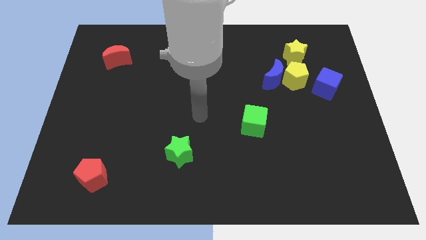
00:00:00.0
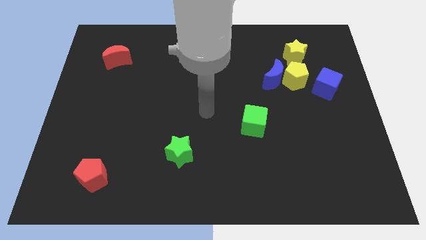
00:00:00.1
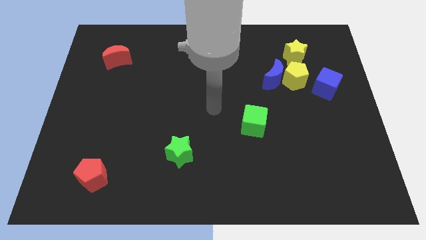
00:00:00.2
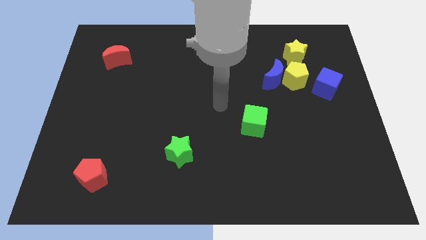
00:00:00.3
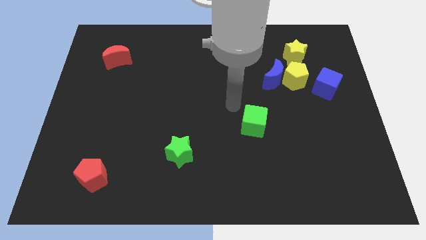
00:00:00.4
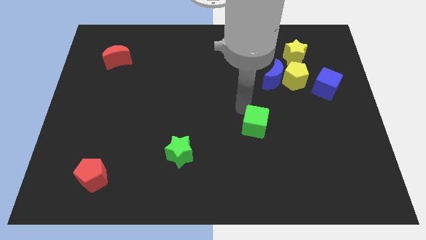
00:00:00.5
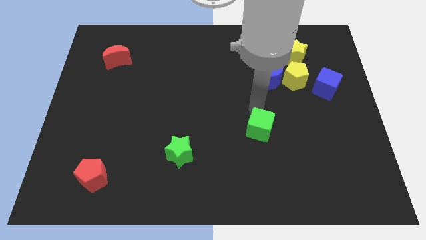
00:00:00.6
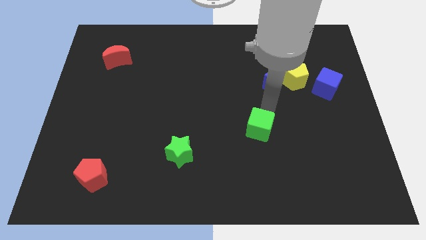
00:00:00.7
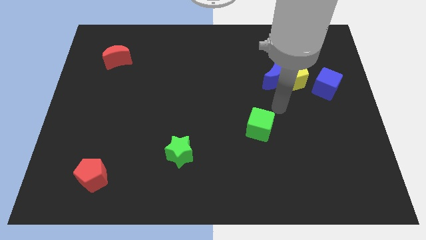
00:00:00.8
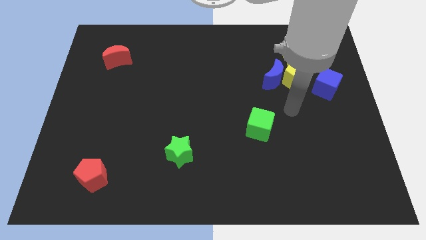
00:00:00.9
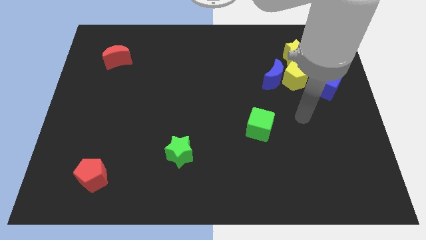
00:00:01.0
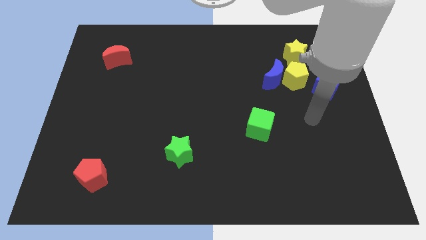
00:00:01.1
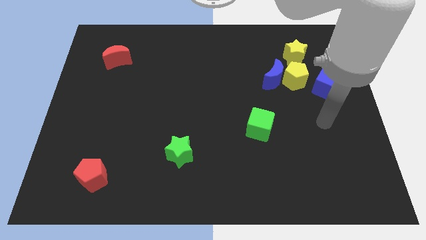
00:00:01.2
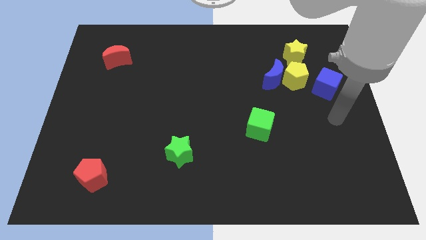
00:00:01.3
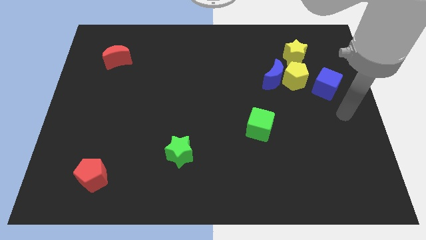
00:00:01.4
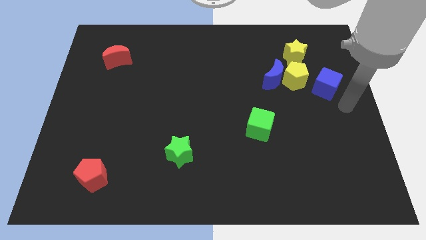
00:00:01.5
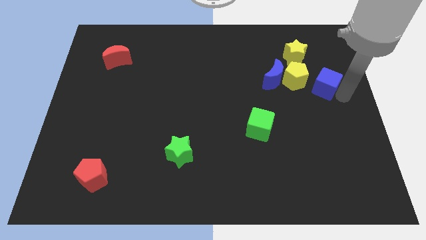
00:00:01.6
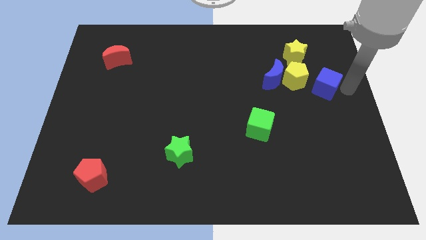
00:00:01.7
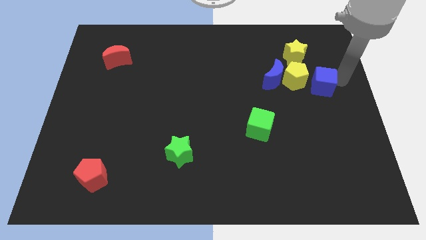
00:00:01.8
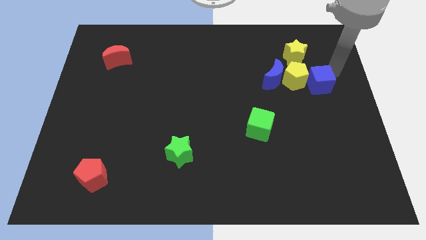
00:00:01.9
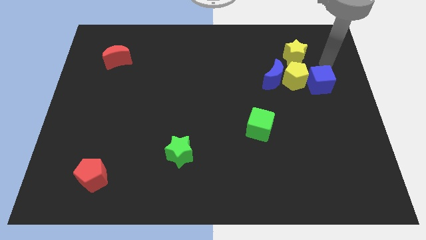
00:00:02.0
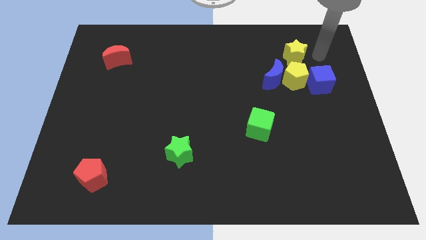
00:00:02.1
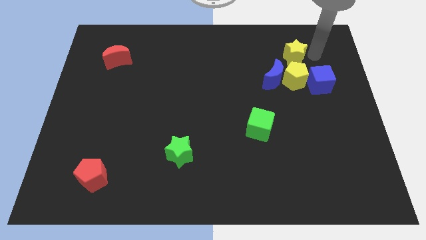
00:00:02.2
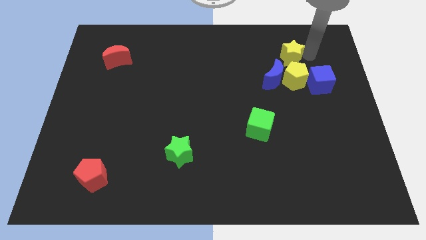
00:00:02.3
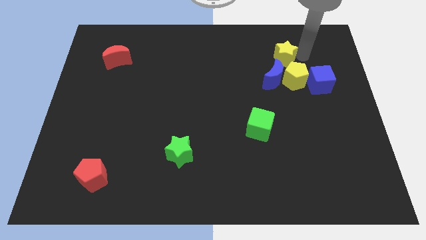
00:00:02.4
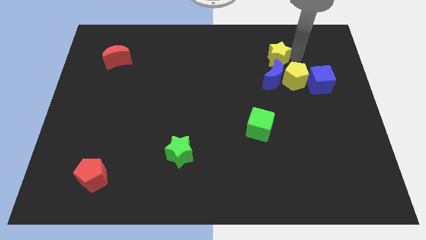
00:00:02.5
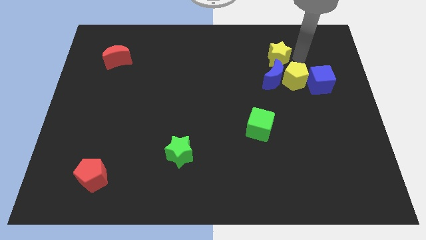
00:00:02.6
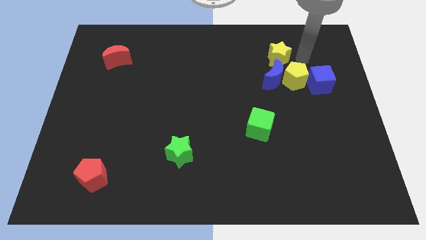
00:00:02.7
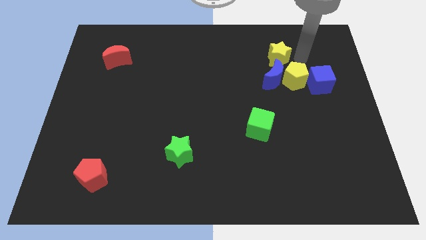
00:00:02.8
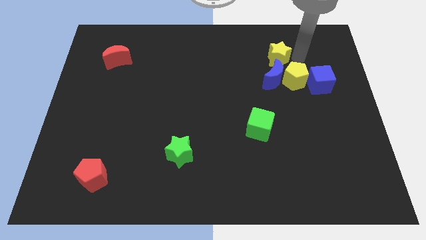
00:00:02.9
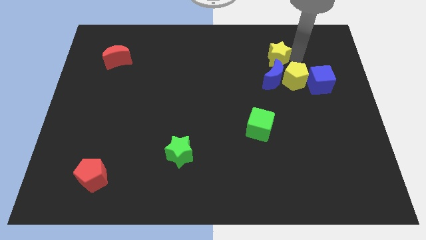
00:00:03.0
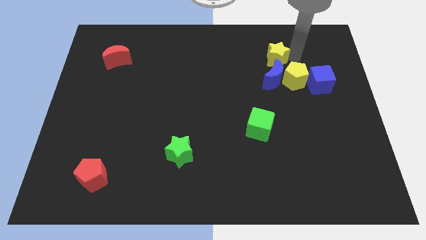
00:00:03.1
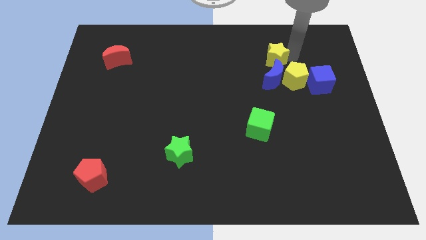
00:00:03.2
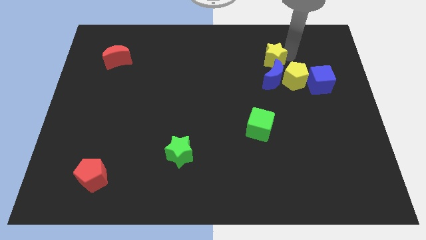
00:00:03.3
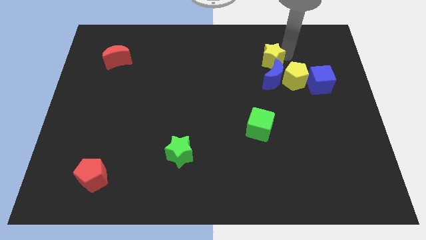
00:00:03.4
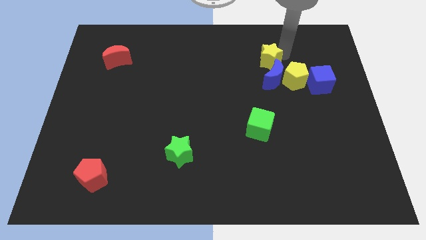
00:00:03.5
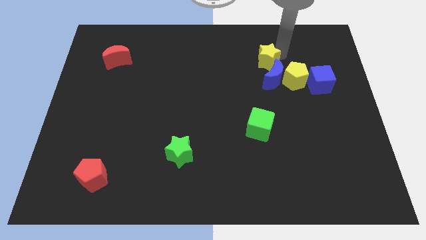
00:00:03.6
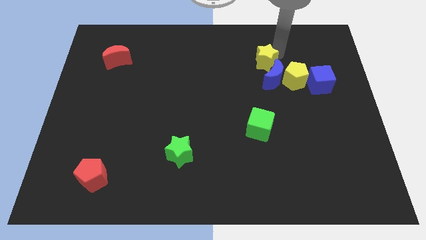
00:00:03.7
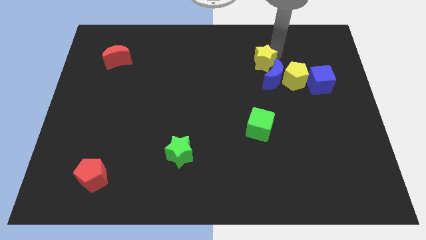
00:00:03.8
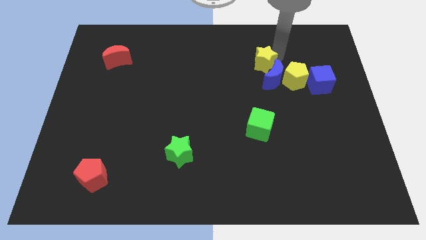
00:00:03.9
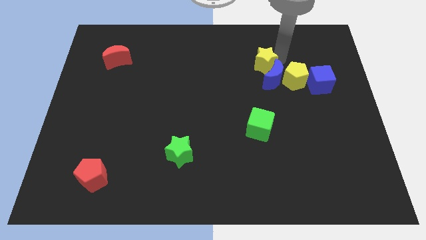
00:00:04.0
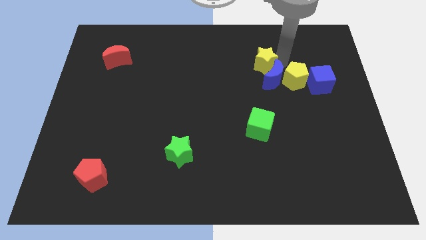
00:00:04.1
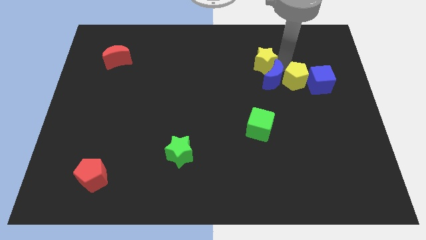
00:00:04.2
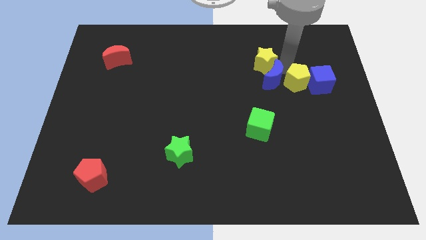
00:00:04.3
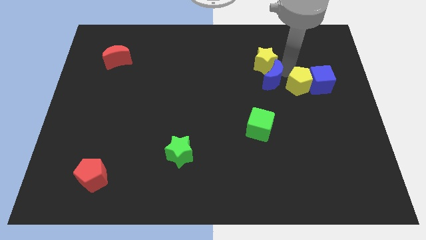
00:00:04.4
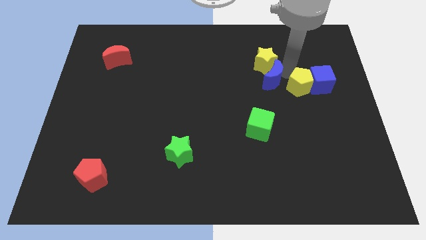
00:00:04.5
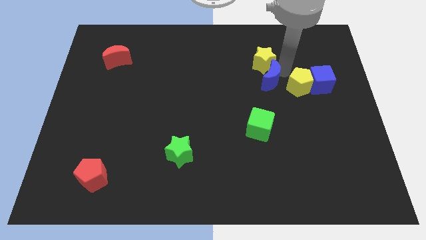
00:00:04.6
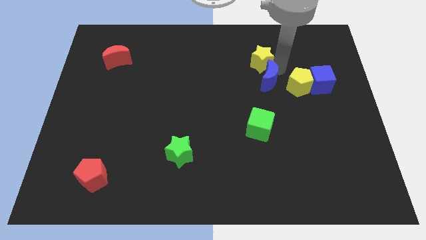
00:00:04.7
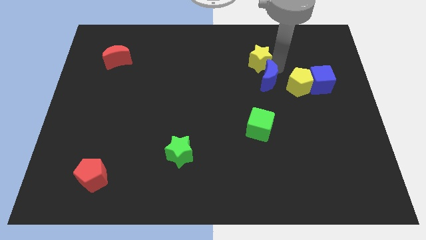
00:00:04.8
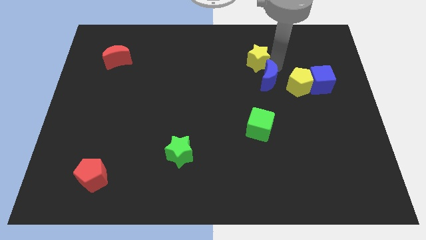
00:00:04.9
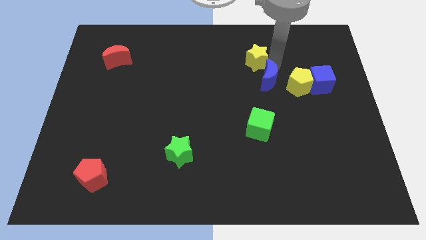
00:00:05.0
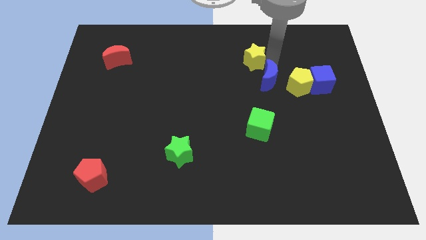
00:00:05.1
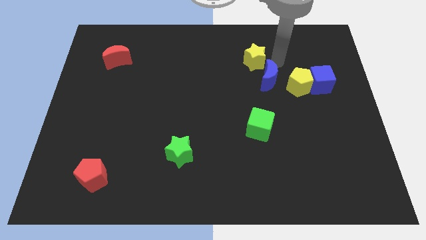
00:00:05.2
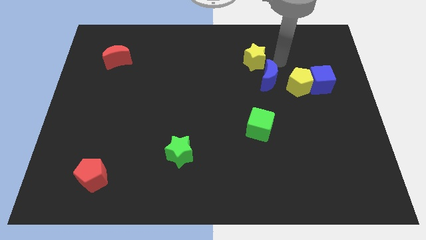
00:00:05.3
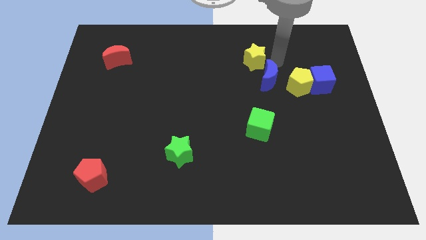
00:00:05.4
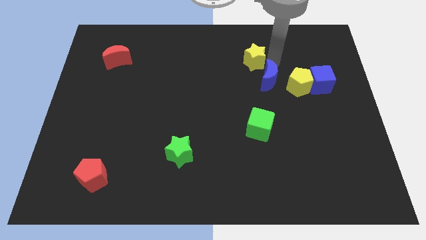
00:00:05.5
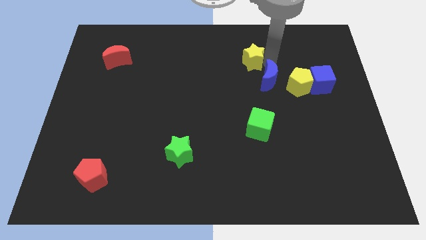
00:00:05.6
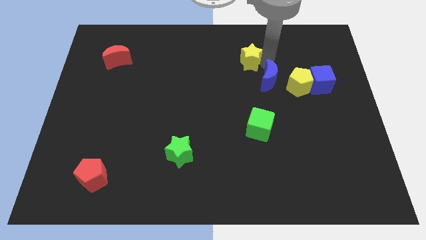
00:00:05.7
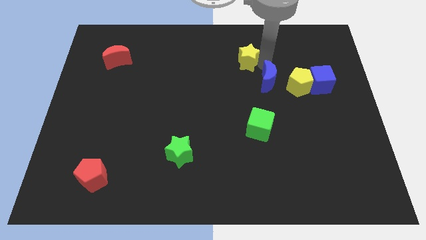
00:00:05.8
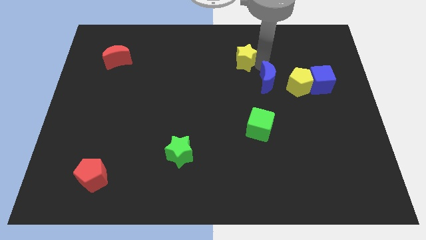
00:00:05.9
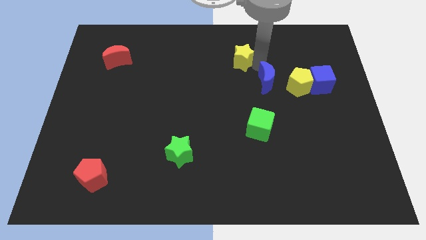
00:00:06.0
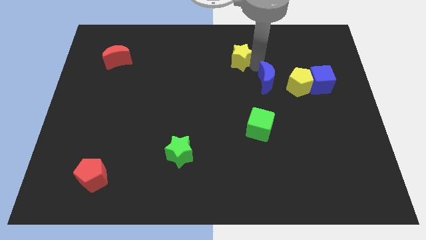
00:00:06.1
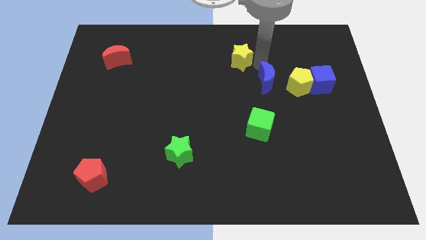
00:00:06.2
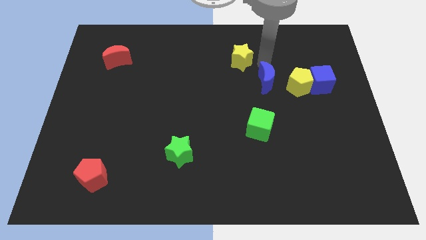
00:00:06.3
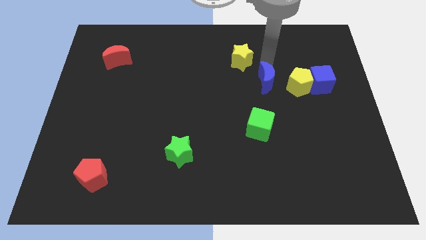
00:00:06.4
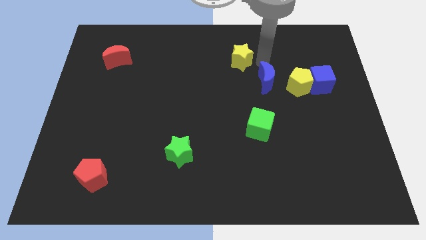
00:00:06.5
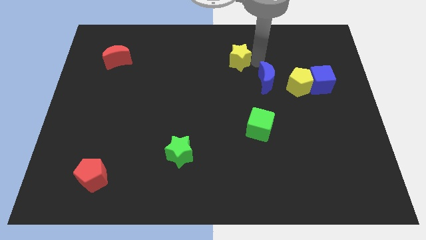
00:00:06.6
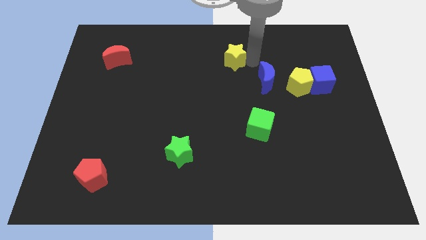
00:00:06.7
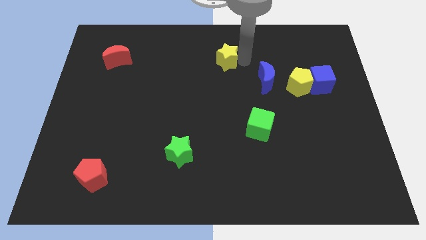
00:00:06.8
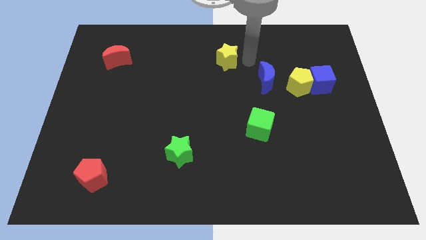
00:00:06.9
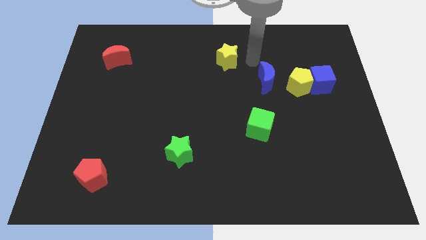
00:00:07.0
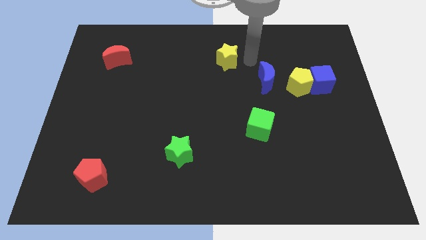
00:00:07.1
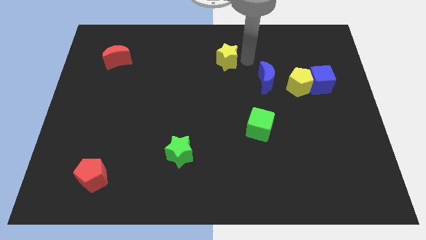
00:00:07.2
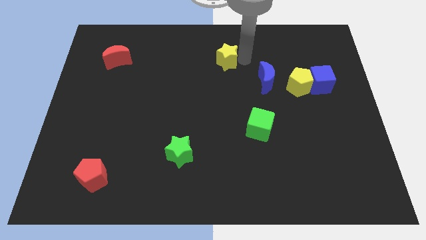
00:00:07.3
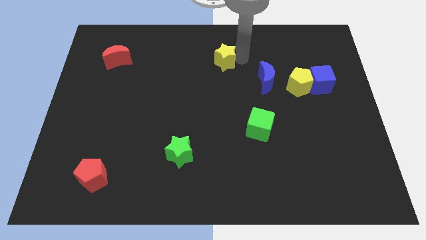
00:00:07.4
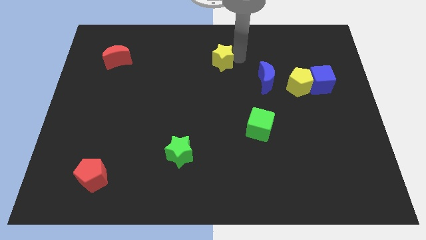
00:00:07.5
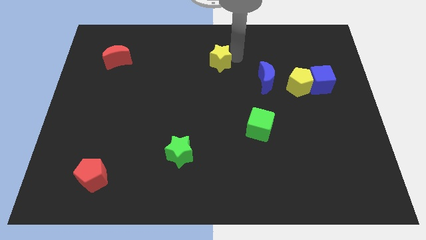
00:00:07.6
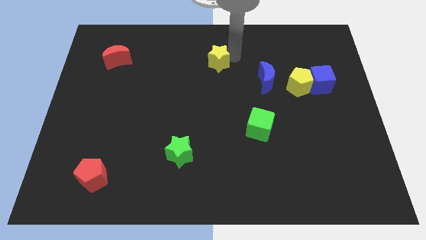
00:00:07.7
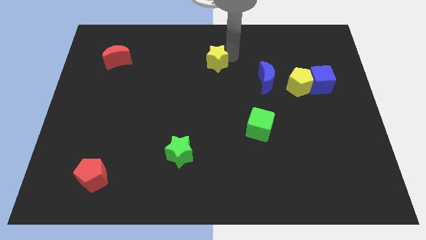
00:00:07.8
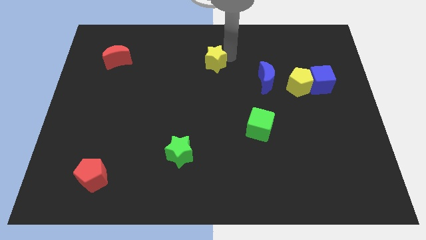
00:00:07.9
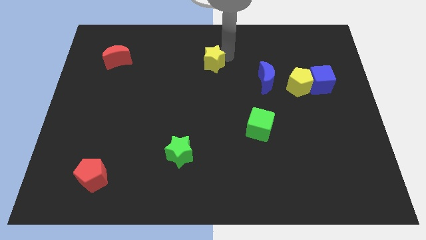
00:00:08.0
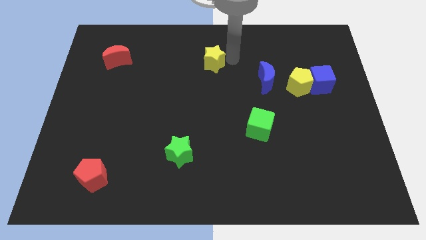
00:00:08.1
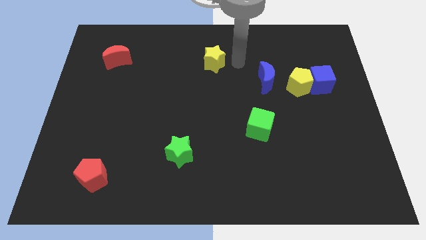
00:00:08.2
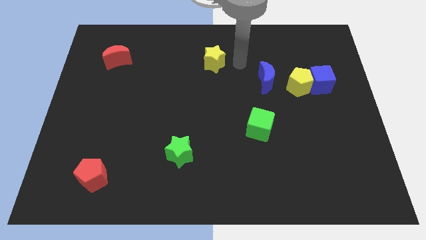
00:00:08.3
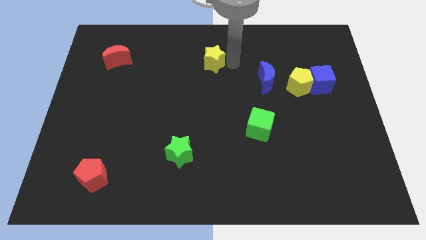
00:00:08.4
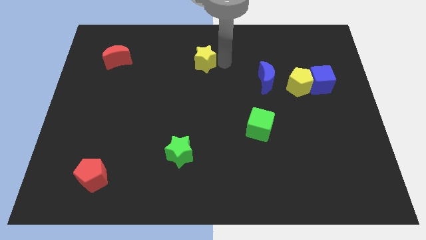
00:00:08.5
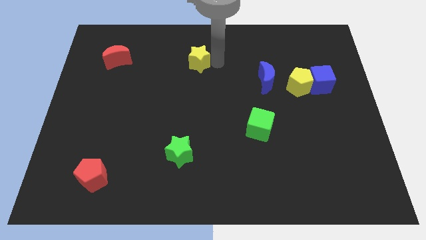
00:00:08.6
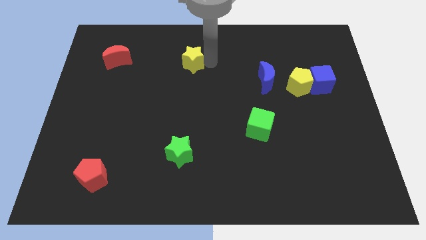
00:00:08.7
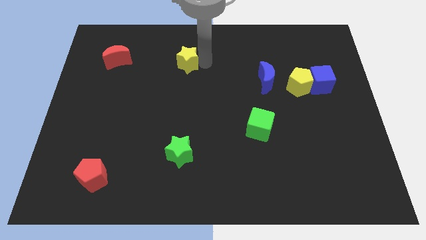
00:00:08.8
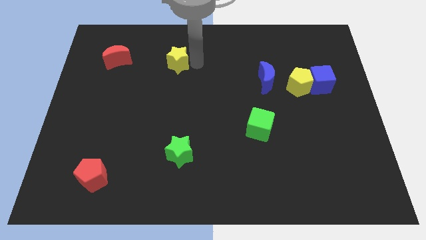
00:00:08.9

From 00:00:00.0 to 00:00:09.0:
push the yellow star to the right of the red moon
